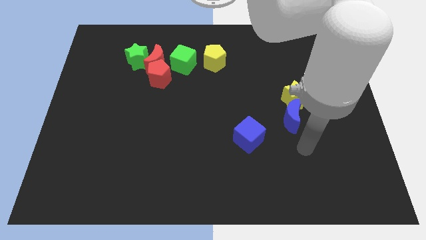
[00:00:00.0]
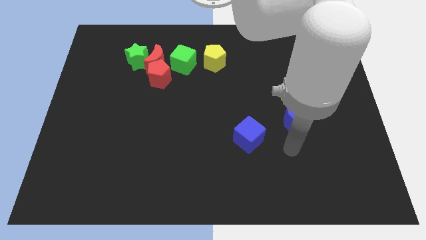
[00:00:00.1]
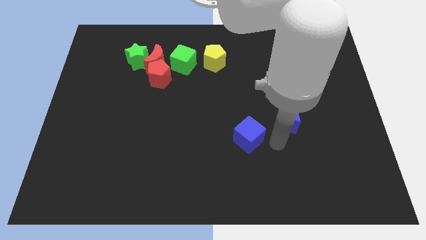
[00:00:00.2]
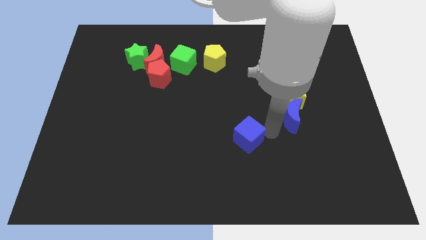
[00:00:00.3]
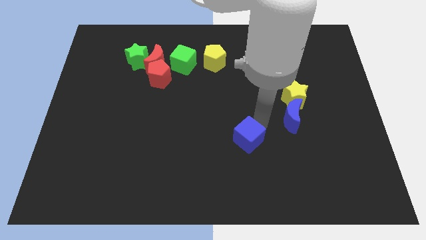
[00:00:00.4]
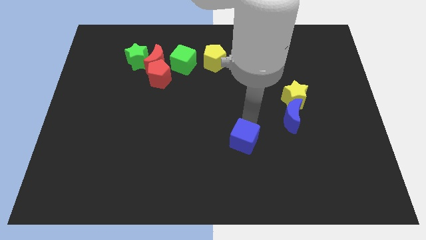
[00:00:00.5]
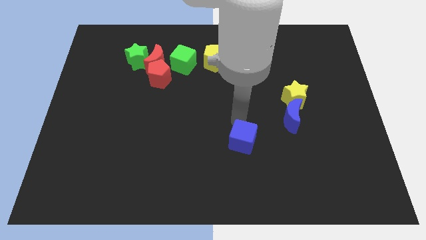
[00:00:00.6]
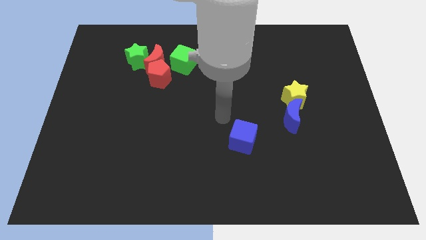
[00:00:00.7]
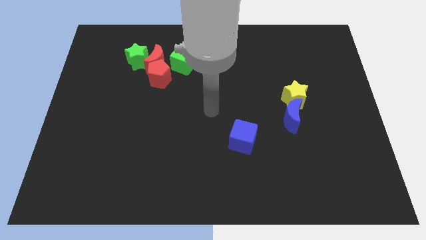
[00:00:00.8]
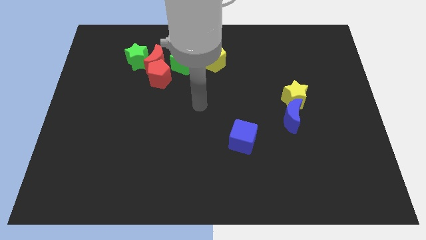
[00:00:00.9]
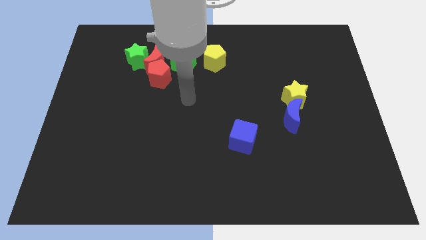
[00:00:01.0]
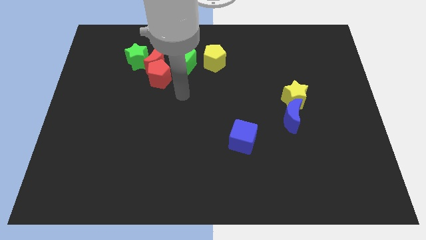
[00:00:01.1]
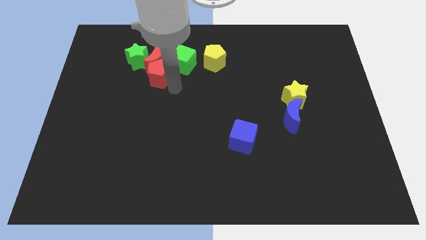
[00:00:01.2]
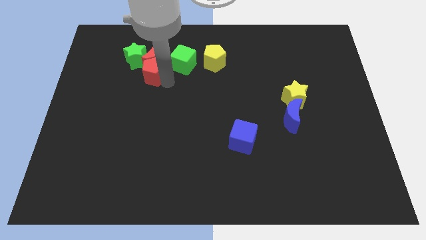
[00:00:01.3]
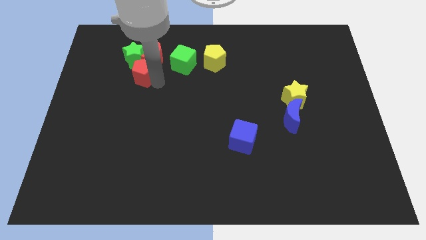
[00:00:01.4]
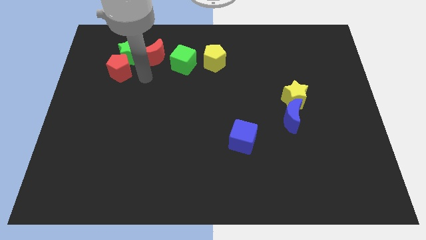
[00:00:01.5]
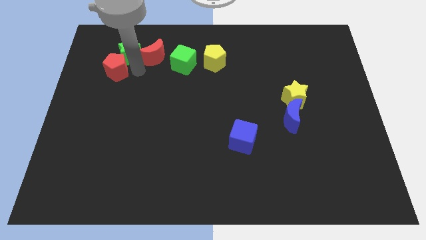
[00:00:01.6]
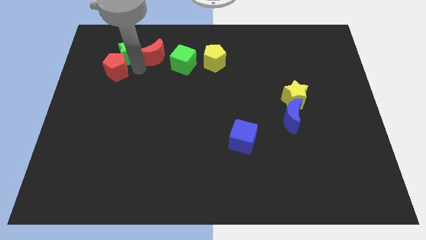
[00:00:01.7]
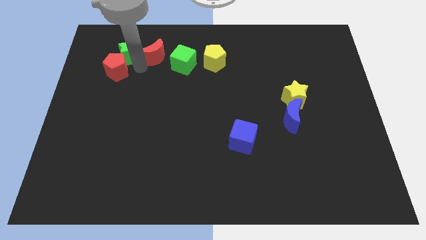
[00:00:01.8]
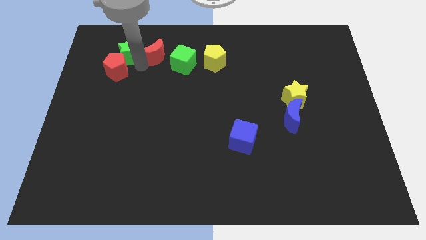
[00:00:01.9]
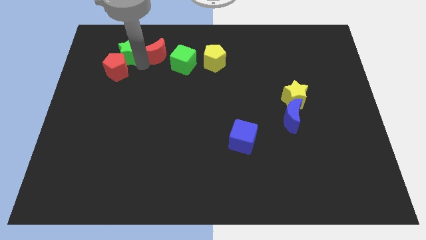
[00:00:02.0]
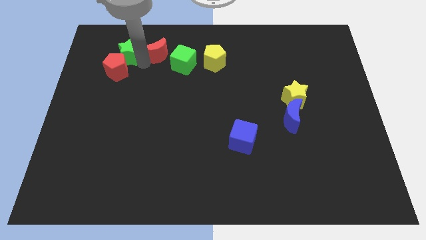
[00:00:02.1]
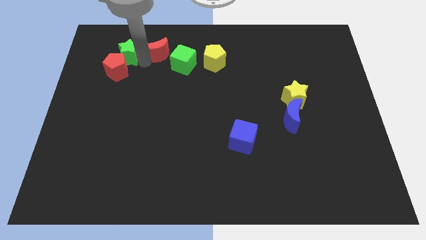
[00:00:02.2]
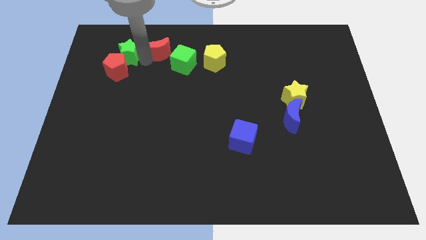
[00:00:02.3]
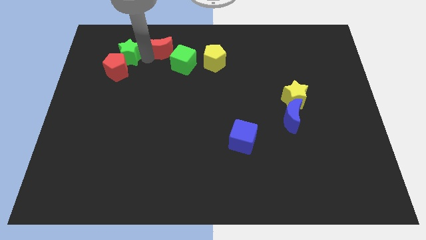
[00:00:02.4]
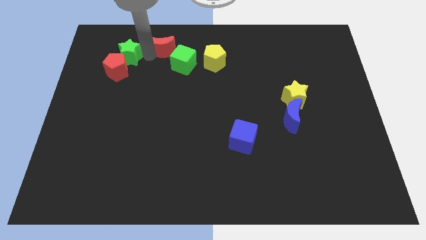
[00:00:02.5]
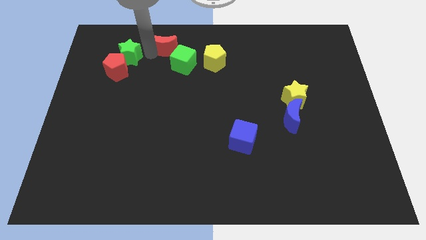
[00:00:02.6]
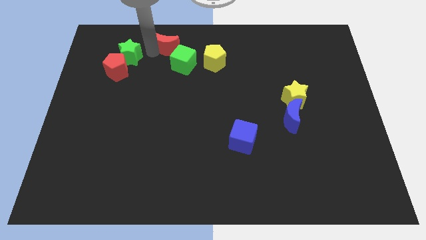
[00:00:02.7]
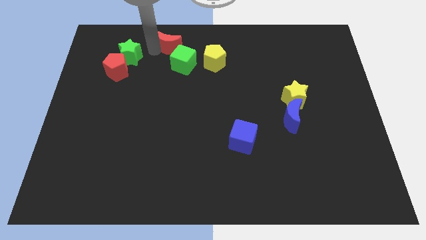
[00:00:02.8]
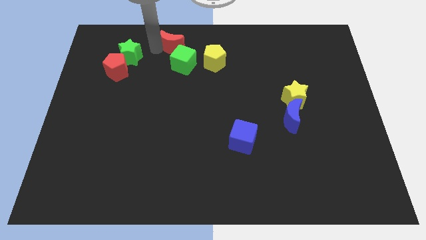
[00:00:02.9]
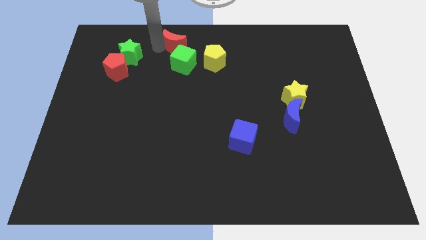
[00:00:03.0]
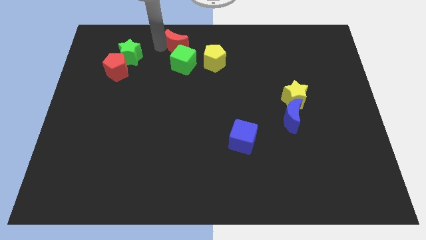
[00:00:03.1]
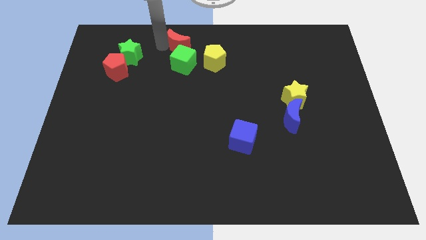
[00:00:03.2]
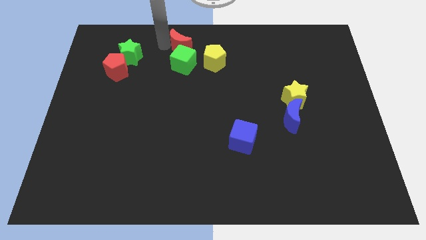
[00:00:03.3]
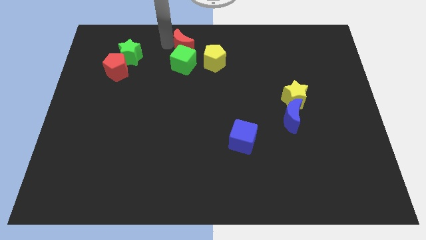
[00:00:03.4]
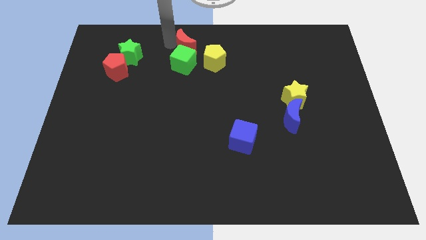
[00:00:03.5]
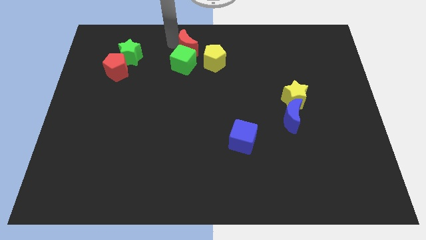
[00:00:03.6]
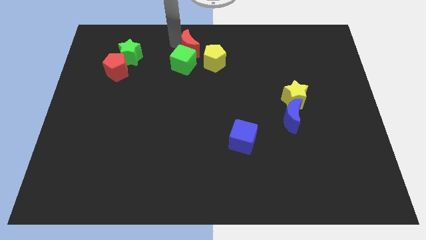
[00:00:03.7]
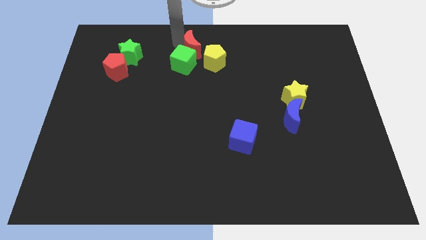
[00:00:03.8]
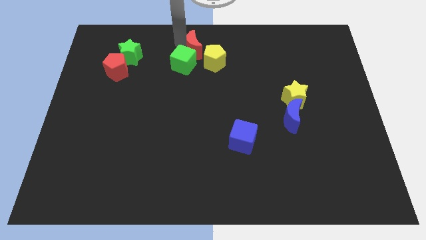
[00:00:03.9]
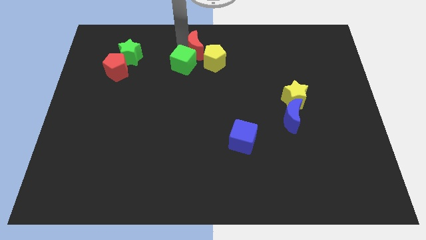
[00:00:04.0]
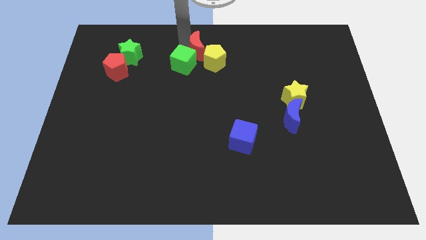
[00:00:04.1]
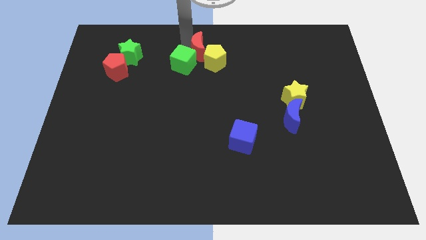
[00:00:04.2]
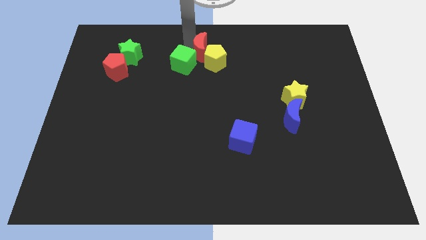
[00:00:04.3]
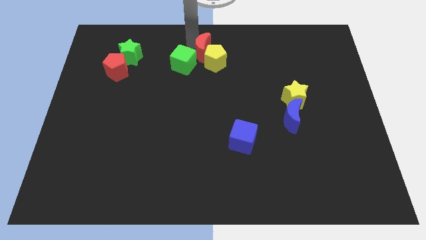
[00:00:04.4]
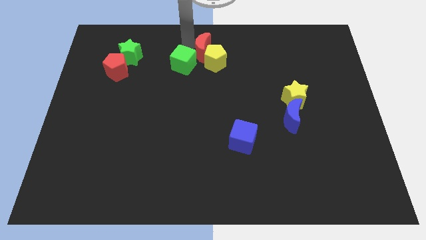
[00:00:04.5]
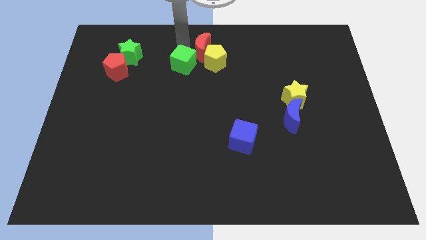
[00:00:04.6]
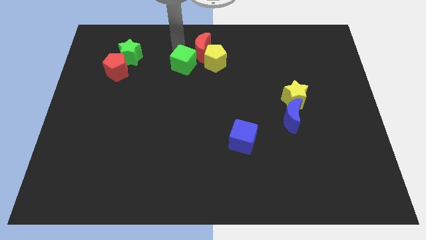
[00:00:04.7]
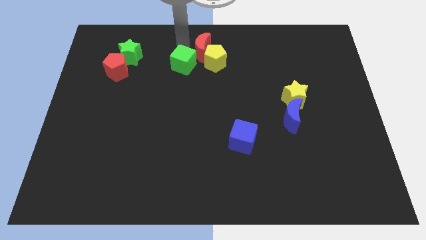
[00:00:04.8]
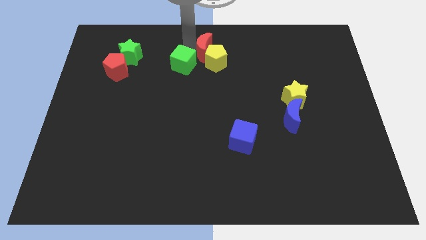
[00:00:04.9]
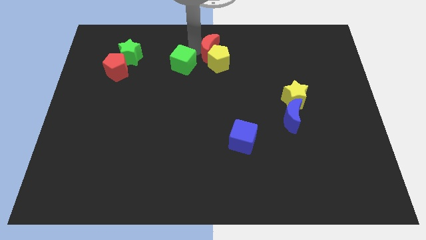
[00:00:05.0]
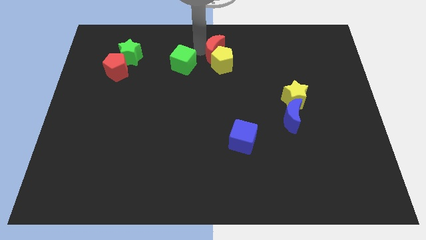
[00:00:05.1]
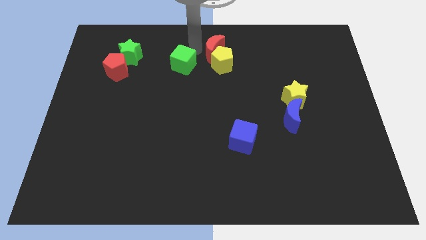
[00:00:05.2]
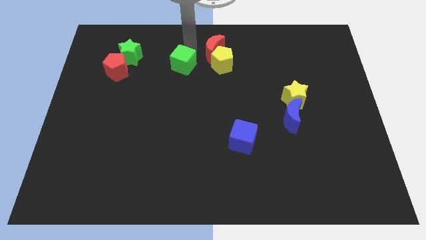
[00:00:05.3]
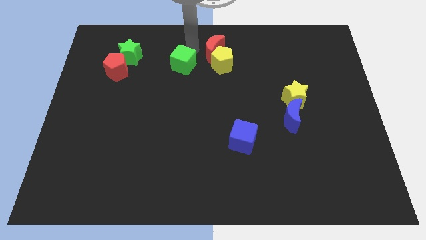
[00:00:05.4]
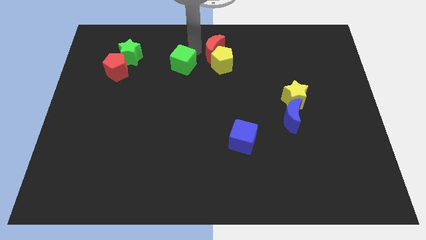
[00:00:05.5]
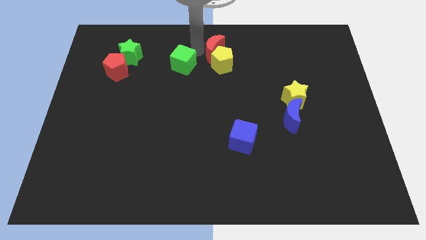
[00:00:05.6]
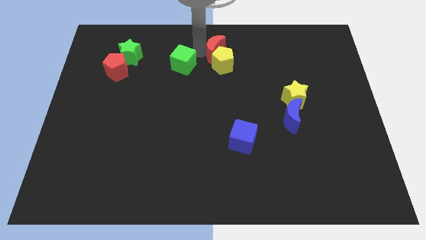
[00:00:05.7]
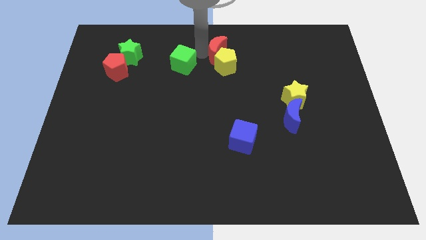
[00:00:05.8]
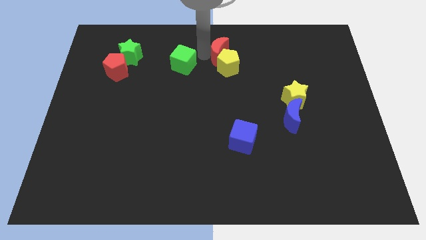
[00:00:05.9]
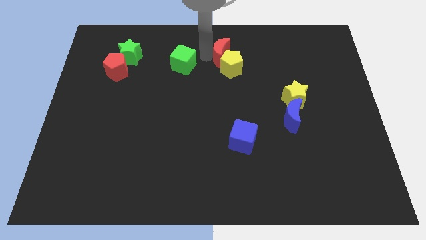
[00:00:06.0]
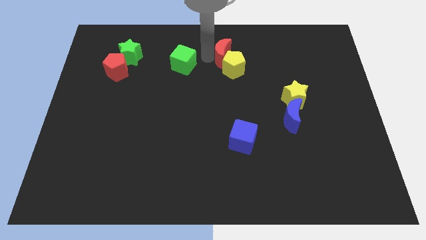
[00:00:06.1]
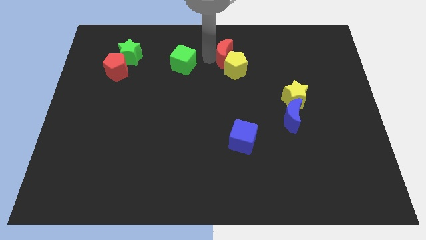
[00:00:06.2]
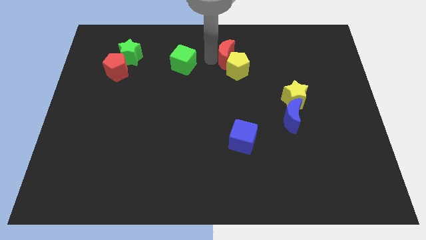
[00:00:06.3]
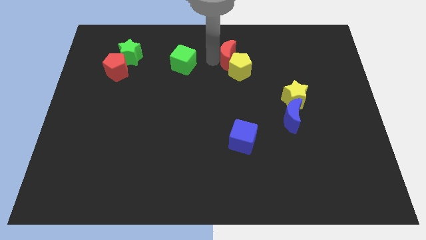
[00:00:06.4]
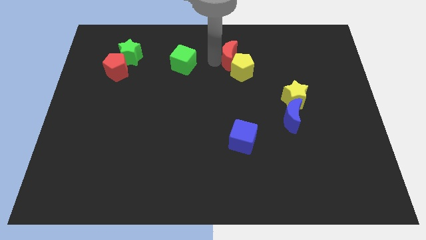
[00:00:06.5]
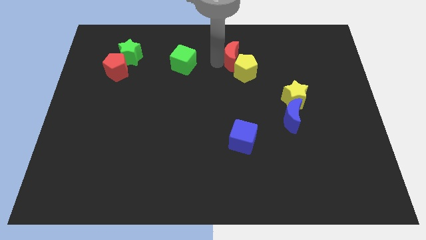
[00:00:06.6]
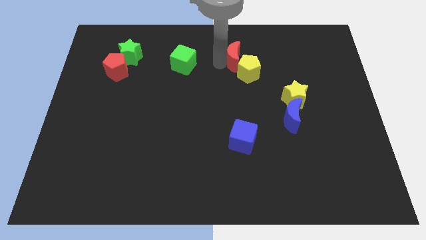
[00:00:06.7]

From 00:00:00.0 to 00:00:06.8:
move the red moon right

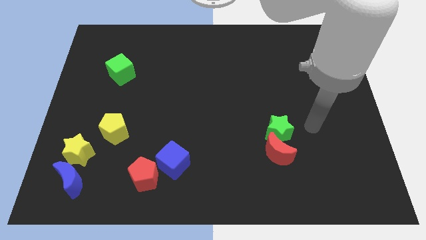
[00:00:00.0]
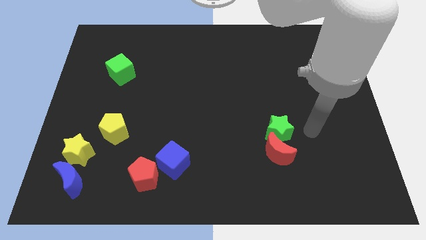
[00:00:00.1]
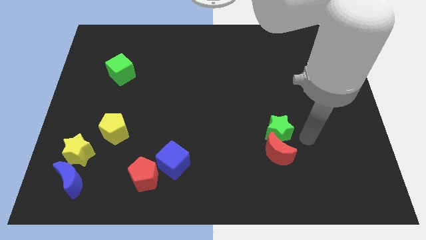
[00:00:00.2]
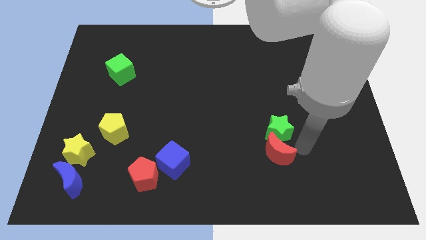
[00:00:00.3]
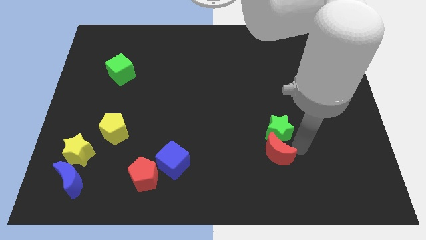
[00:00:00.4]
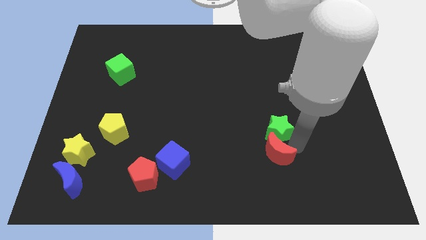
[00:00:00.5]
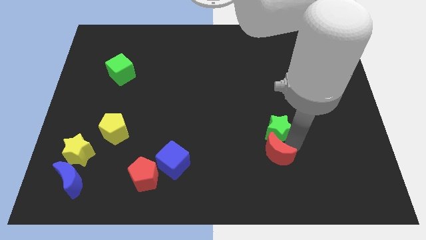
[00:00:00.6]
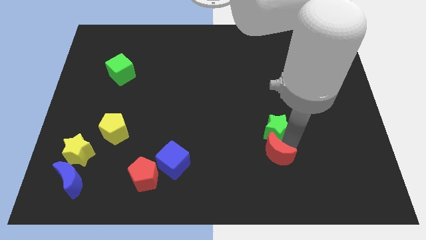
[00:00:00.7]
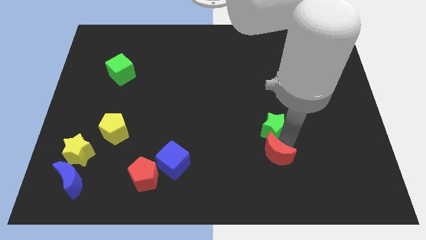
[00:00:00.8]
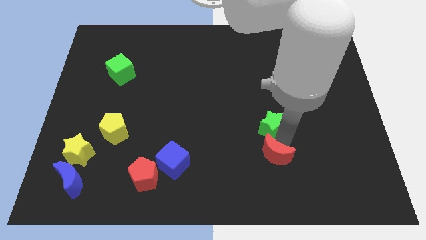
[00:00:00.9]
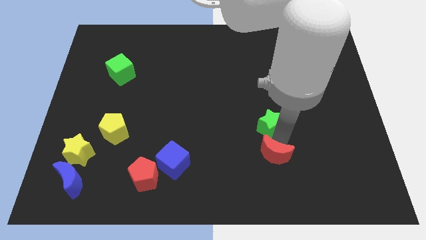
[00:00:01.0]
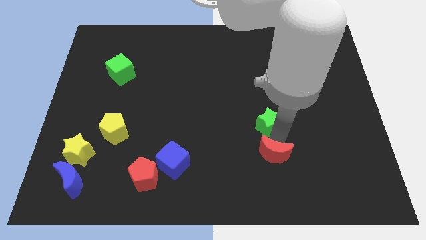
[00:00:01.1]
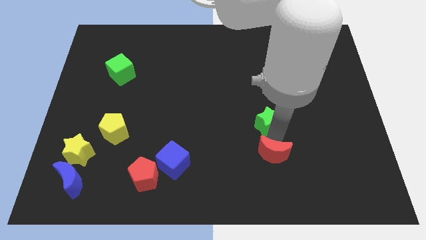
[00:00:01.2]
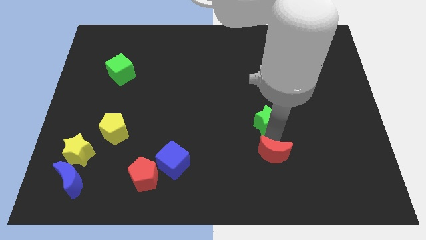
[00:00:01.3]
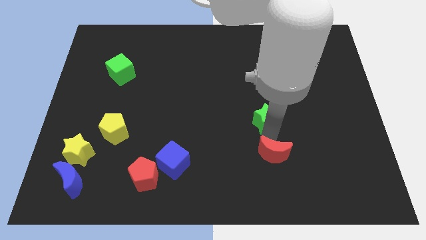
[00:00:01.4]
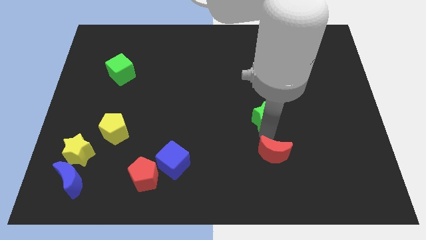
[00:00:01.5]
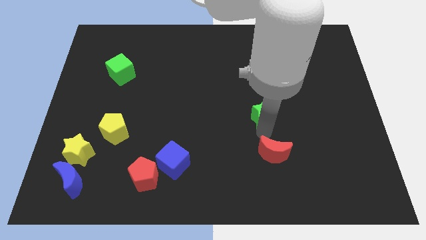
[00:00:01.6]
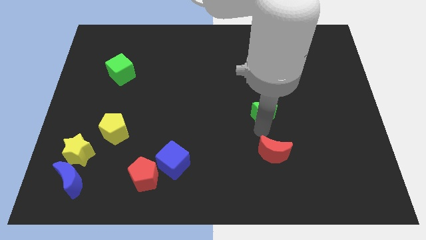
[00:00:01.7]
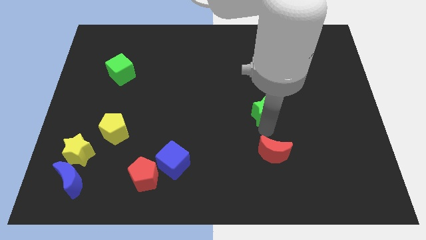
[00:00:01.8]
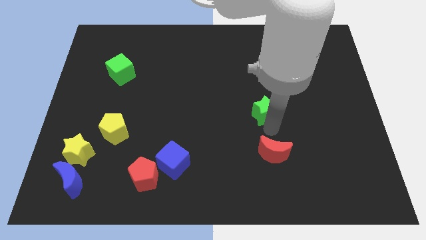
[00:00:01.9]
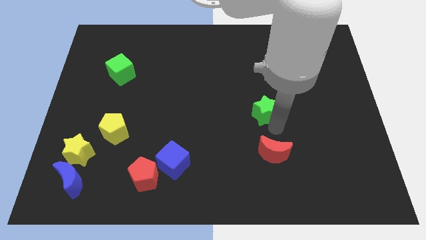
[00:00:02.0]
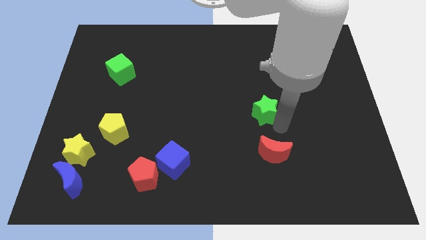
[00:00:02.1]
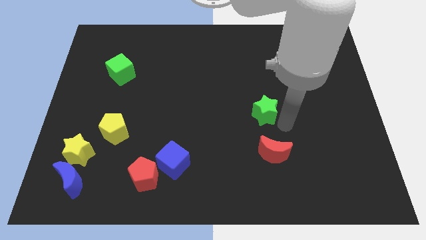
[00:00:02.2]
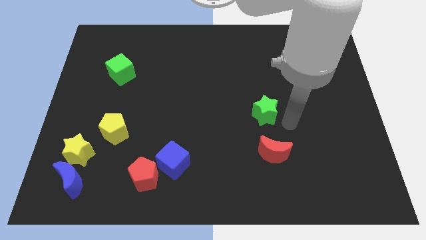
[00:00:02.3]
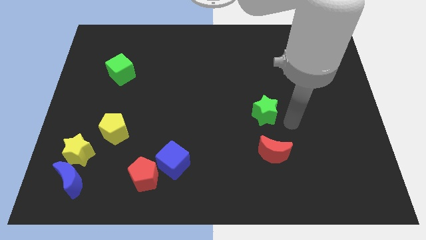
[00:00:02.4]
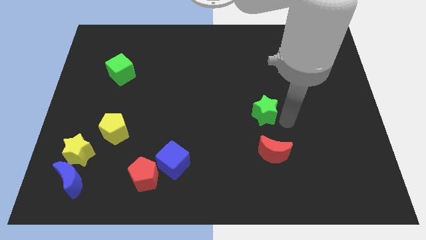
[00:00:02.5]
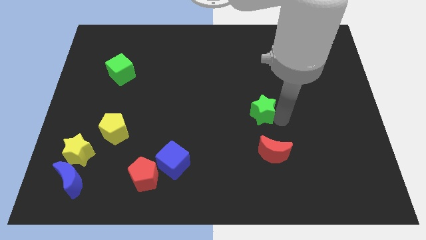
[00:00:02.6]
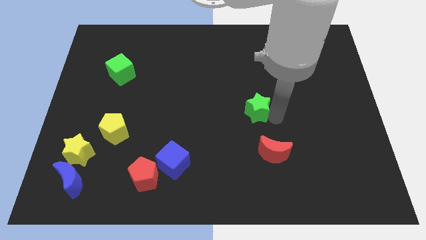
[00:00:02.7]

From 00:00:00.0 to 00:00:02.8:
move the green star diagonally upwards and to the left a little
